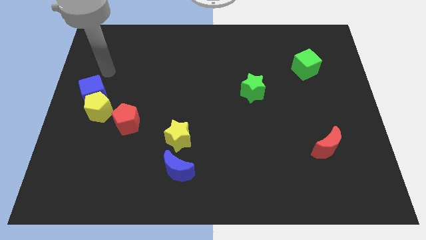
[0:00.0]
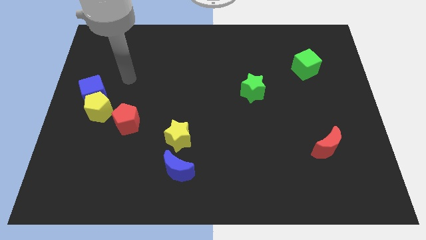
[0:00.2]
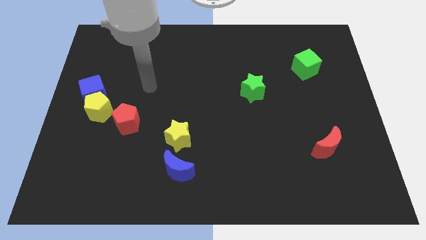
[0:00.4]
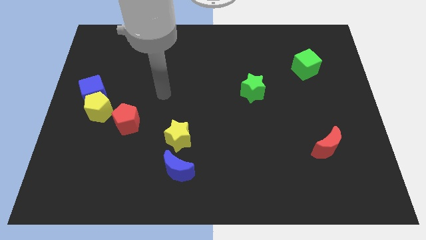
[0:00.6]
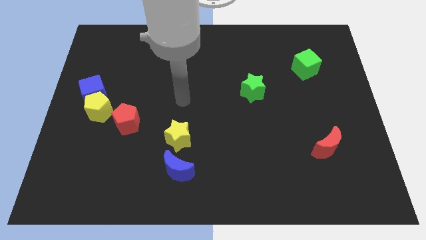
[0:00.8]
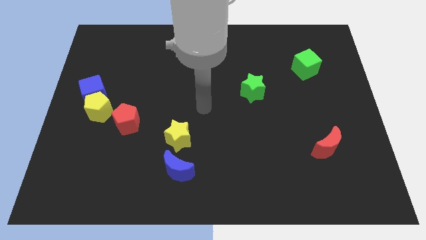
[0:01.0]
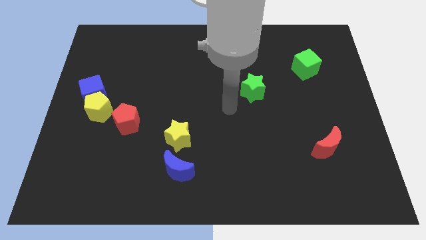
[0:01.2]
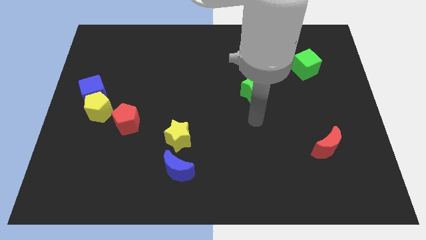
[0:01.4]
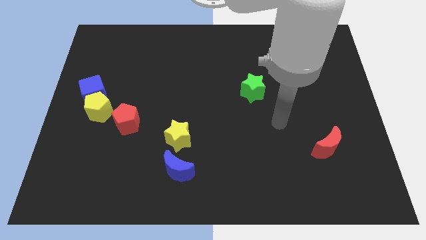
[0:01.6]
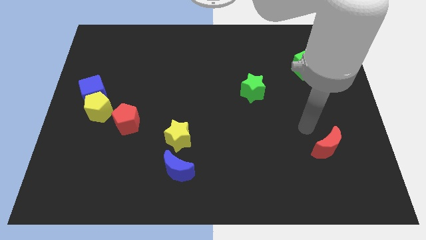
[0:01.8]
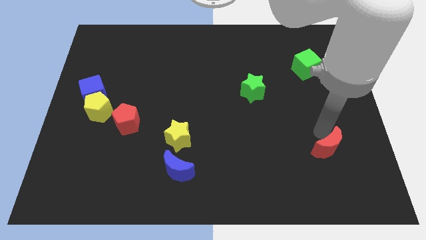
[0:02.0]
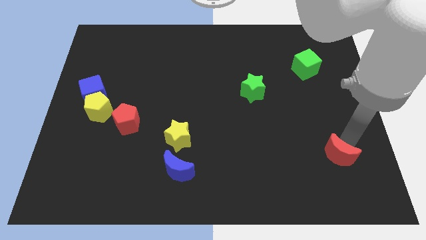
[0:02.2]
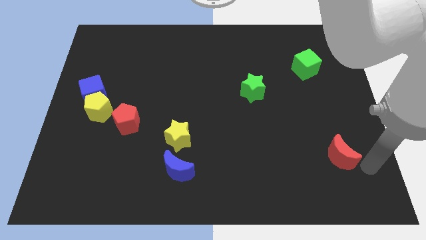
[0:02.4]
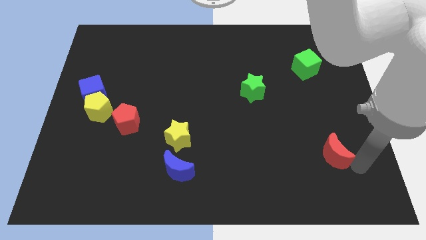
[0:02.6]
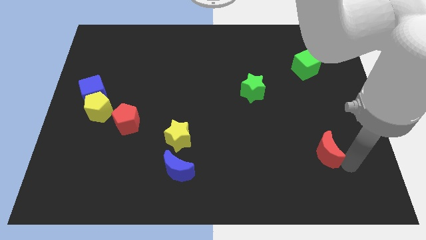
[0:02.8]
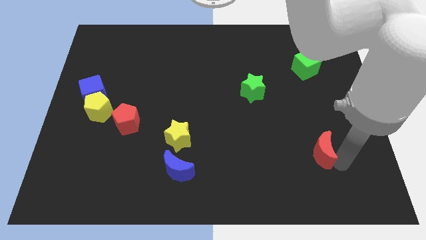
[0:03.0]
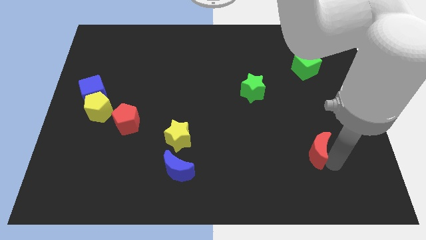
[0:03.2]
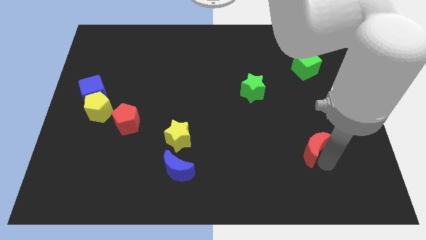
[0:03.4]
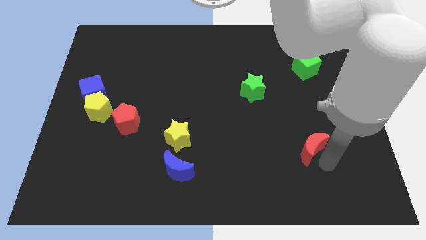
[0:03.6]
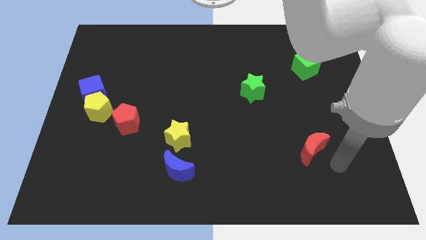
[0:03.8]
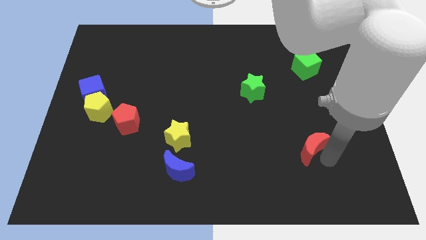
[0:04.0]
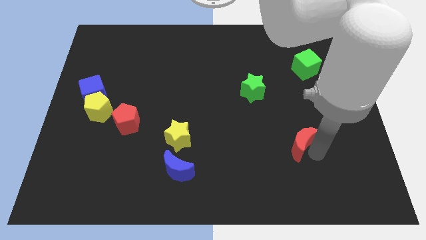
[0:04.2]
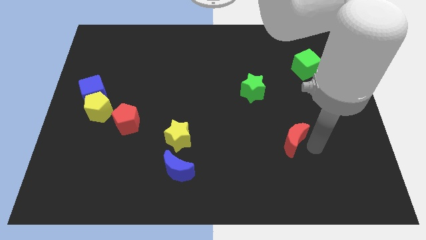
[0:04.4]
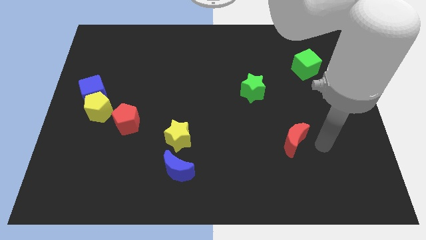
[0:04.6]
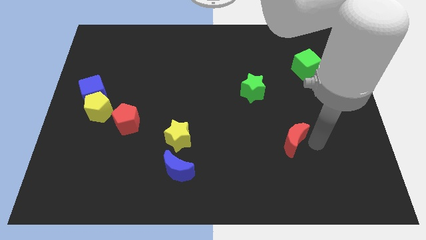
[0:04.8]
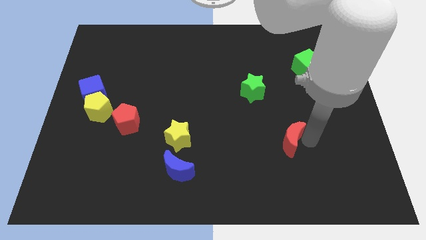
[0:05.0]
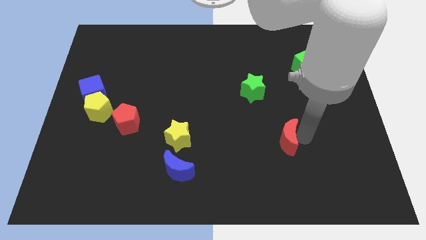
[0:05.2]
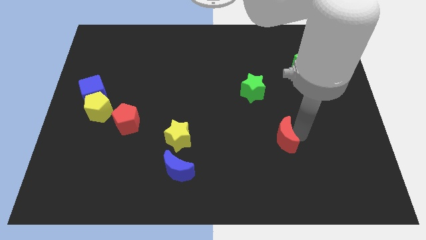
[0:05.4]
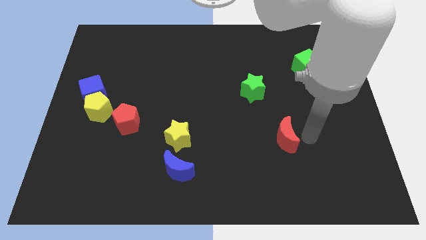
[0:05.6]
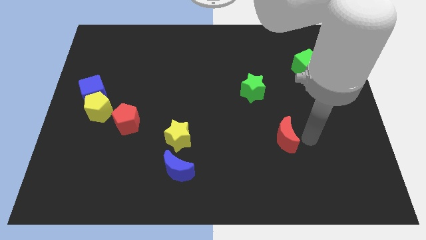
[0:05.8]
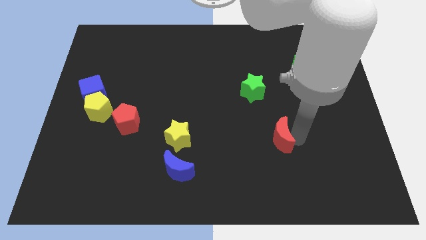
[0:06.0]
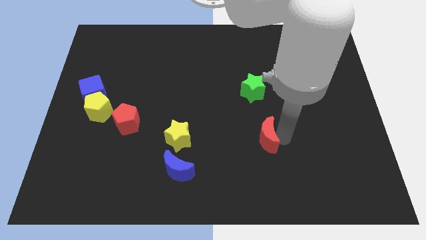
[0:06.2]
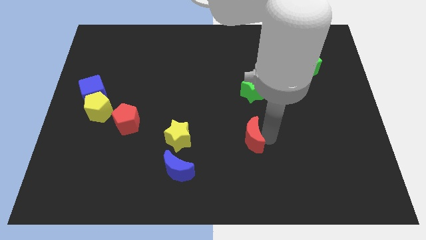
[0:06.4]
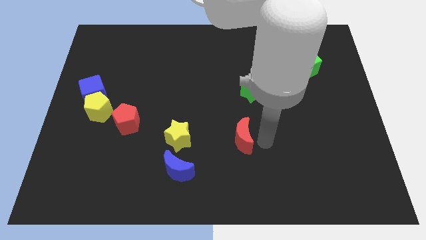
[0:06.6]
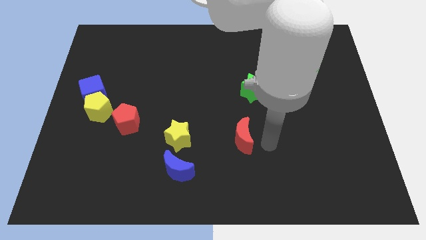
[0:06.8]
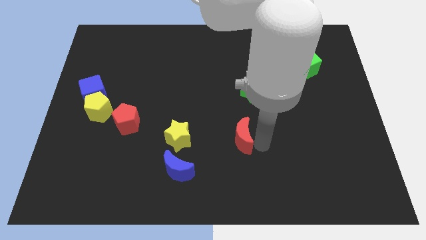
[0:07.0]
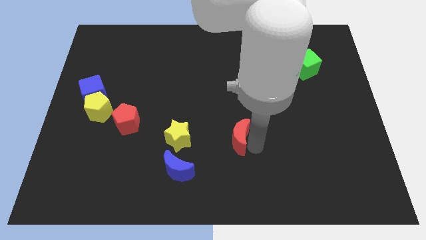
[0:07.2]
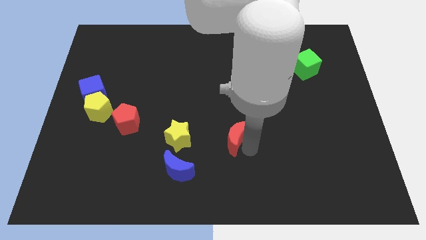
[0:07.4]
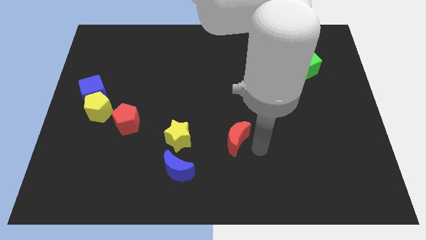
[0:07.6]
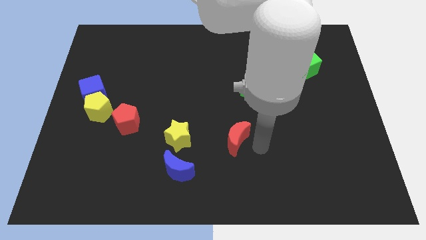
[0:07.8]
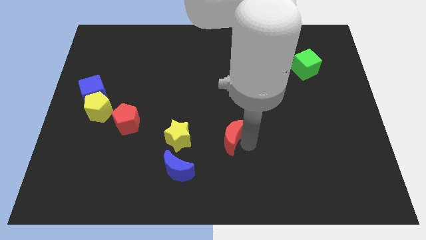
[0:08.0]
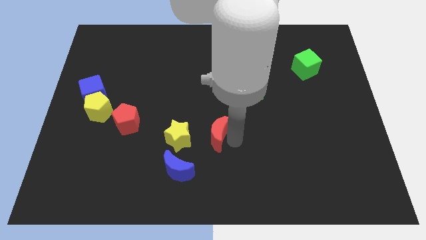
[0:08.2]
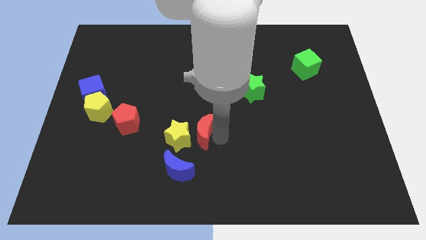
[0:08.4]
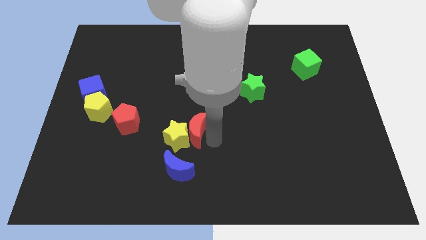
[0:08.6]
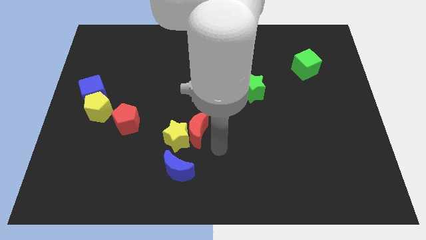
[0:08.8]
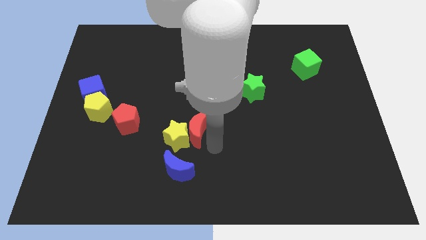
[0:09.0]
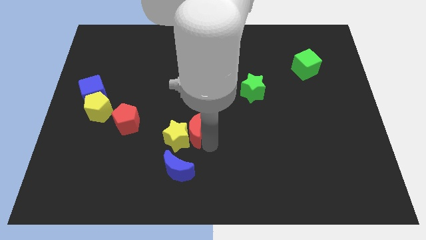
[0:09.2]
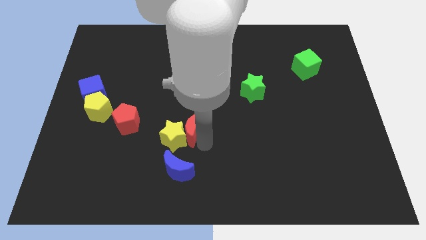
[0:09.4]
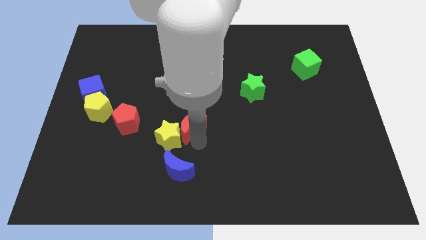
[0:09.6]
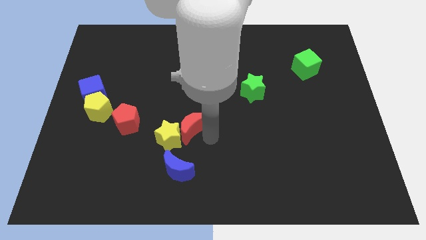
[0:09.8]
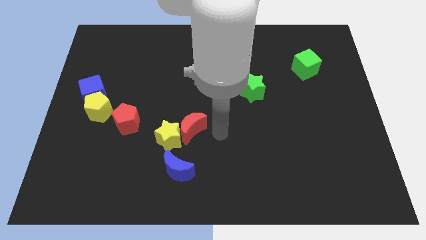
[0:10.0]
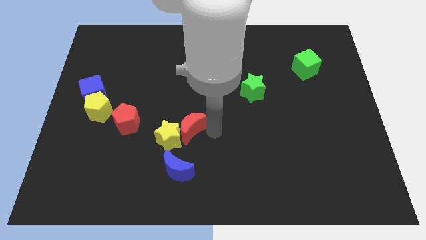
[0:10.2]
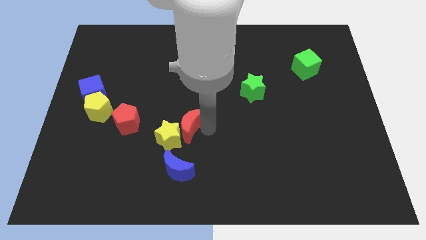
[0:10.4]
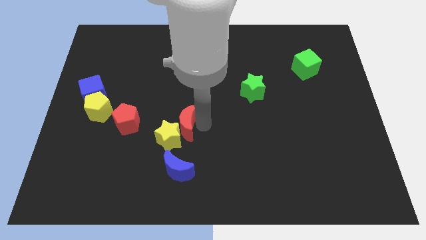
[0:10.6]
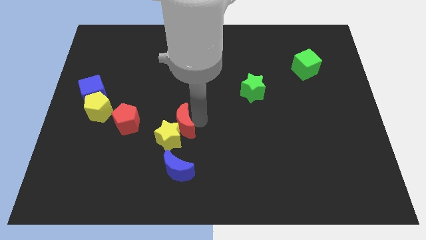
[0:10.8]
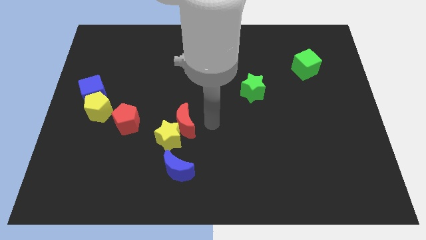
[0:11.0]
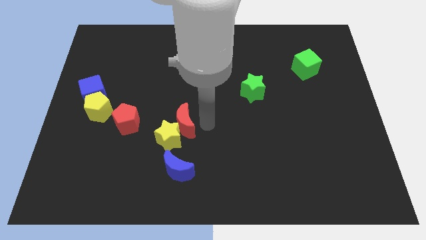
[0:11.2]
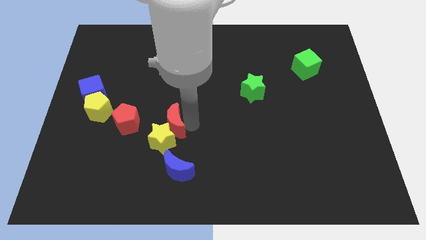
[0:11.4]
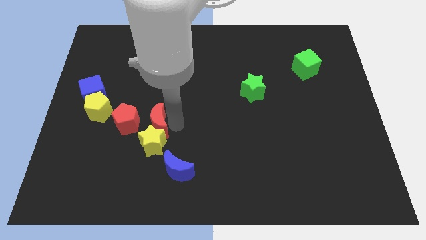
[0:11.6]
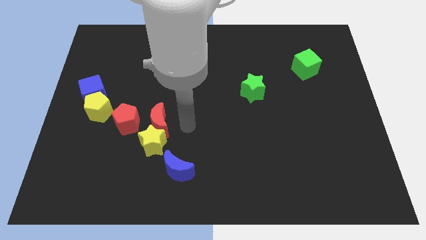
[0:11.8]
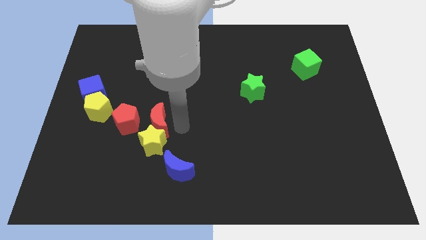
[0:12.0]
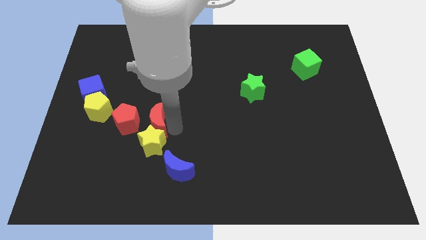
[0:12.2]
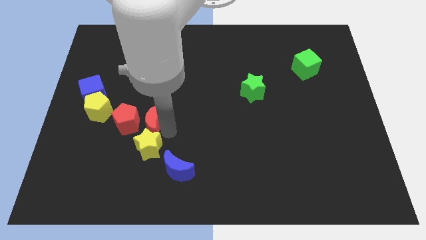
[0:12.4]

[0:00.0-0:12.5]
push the red moon to the red pentagon
